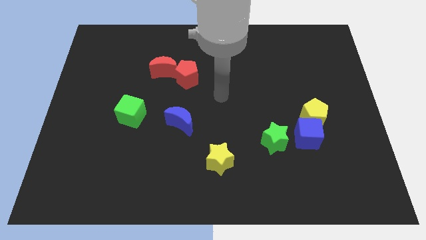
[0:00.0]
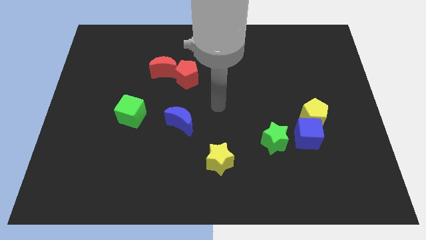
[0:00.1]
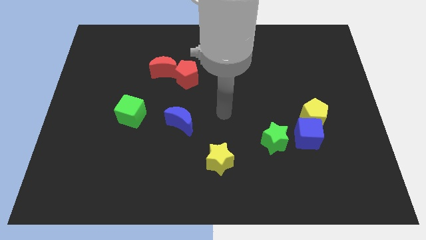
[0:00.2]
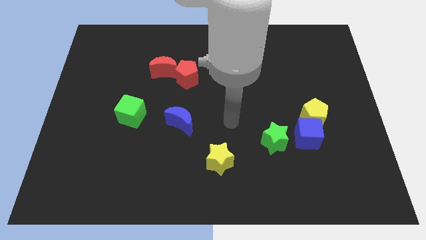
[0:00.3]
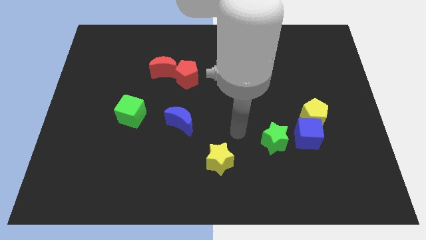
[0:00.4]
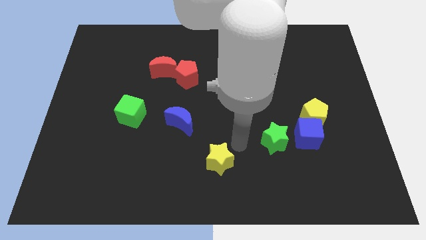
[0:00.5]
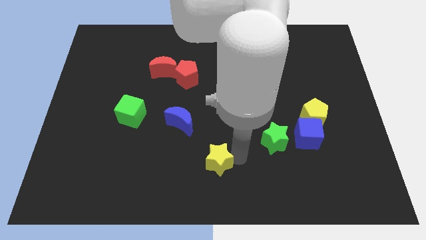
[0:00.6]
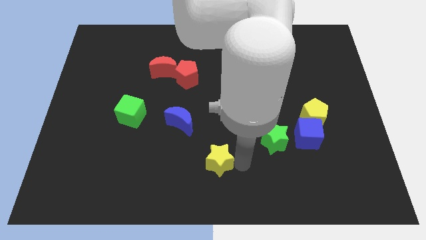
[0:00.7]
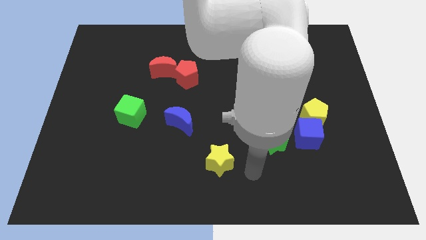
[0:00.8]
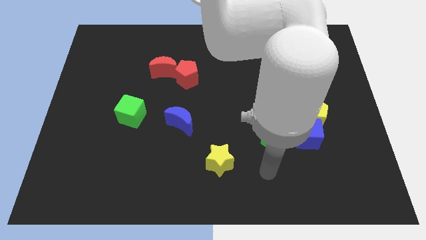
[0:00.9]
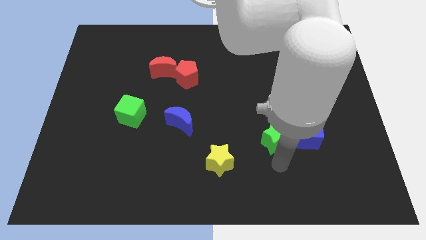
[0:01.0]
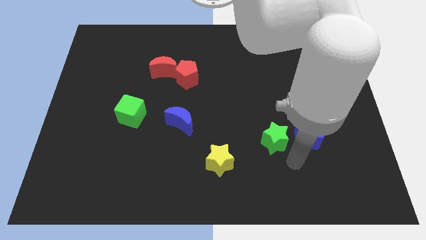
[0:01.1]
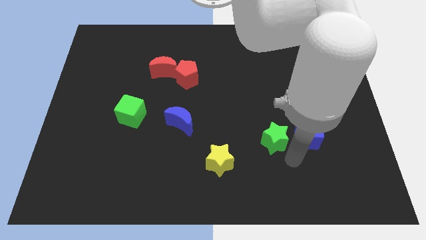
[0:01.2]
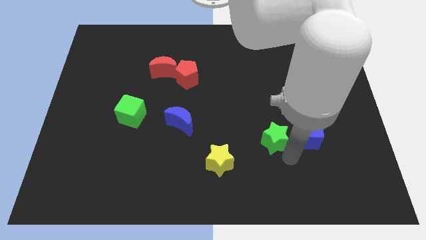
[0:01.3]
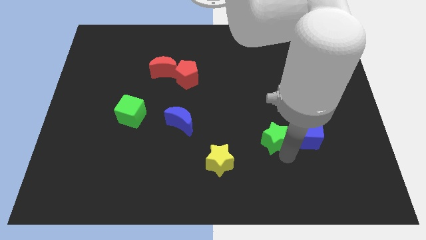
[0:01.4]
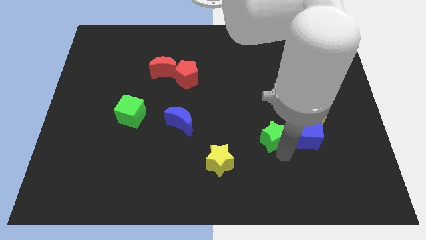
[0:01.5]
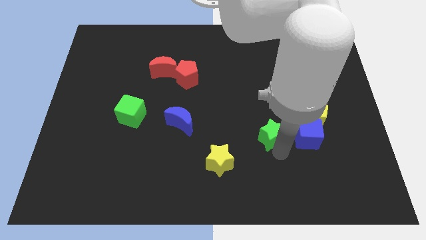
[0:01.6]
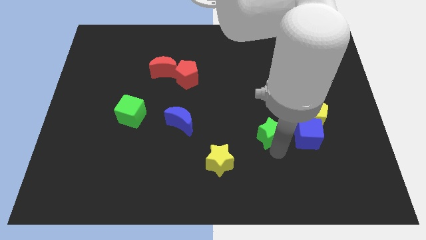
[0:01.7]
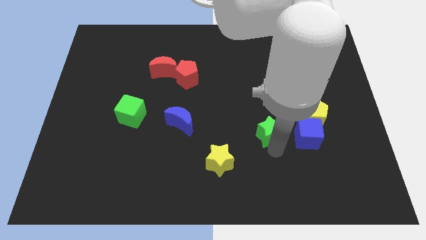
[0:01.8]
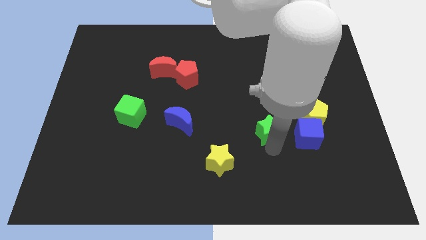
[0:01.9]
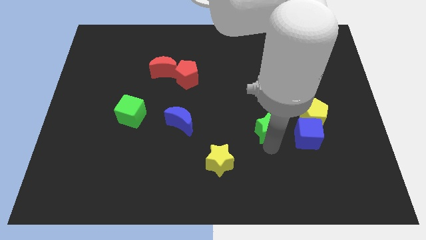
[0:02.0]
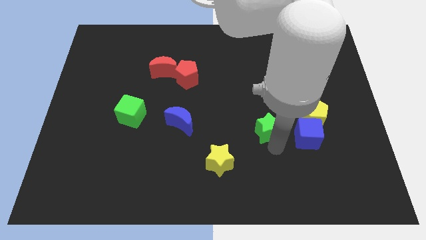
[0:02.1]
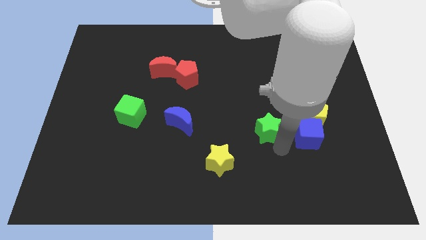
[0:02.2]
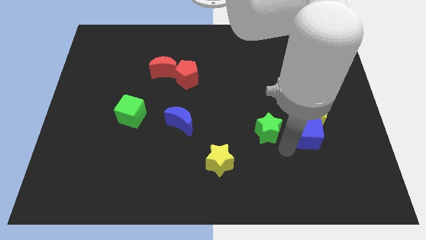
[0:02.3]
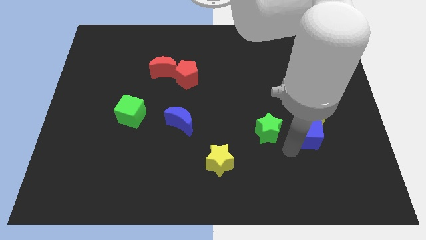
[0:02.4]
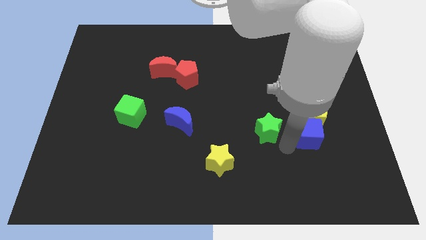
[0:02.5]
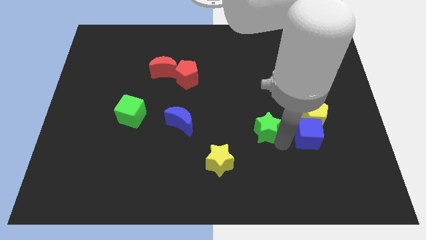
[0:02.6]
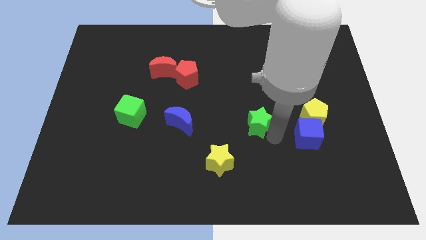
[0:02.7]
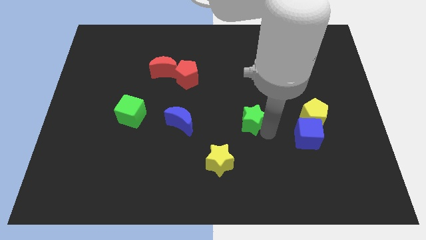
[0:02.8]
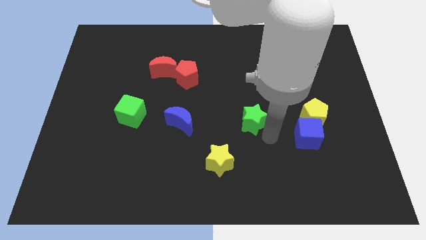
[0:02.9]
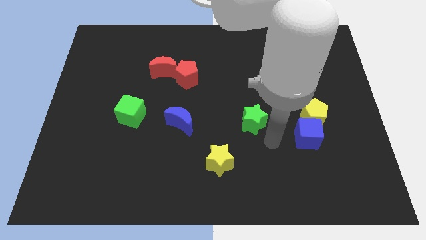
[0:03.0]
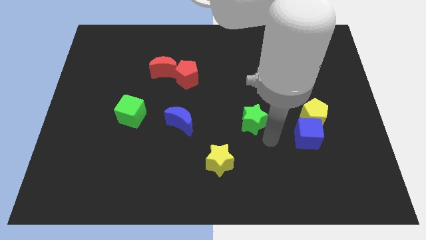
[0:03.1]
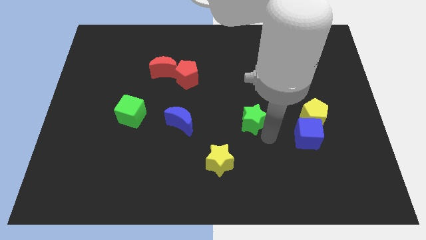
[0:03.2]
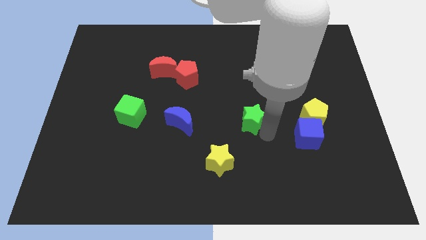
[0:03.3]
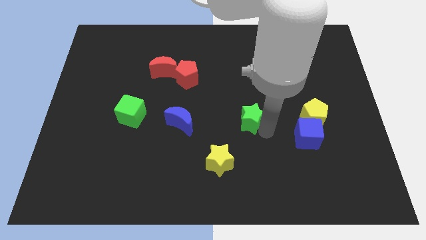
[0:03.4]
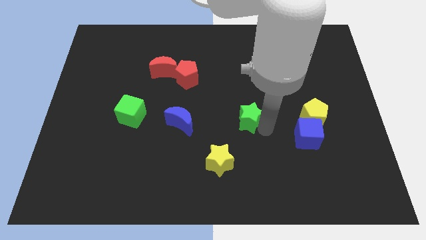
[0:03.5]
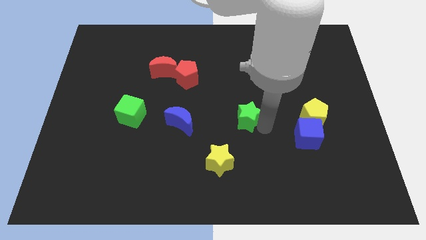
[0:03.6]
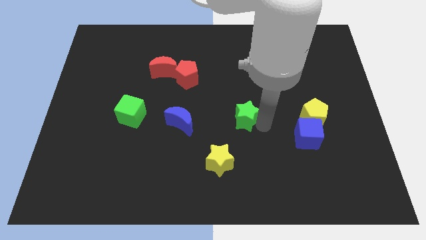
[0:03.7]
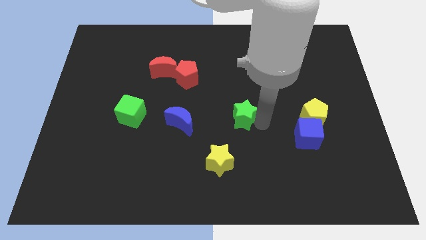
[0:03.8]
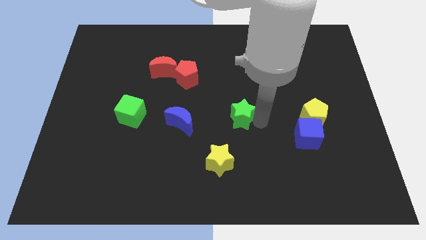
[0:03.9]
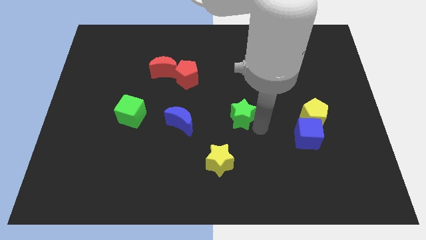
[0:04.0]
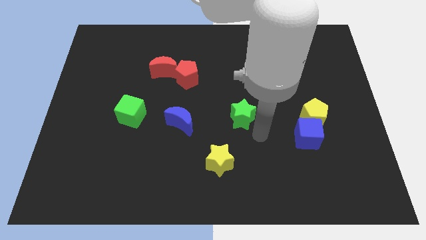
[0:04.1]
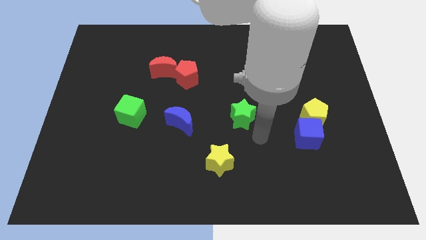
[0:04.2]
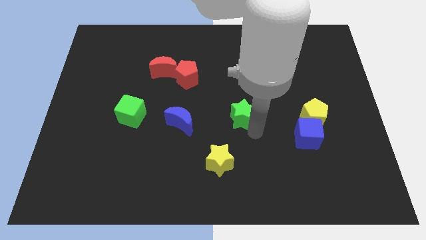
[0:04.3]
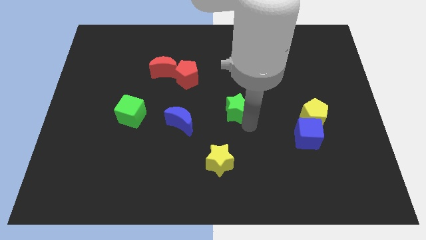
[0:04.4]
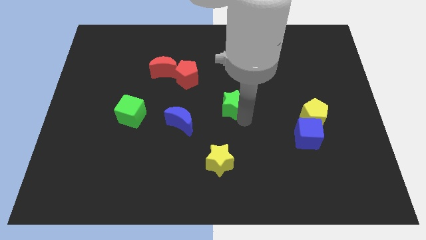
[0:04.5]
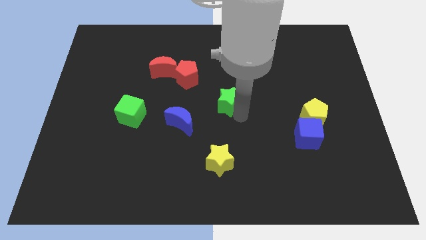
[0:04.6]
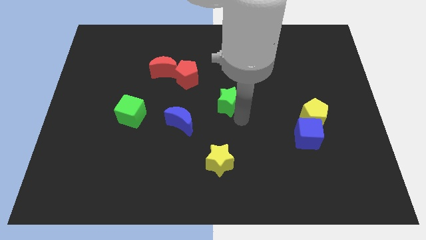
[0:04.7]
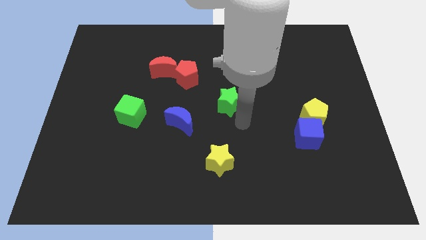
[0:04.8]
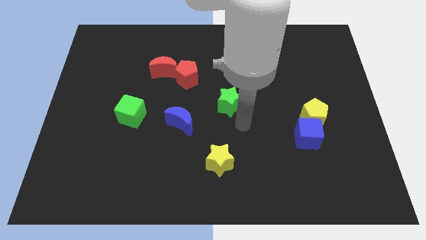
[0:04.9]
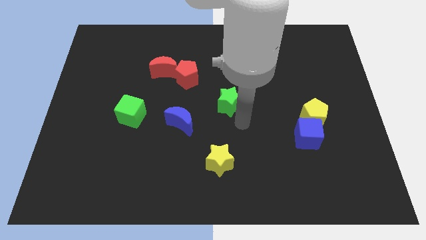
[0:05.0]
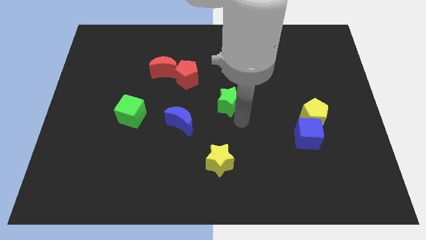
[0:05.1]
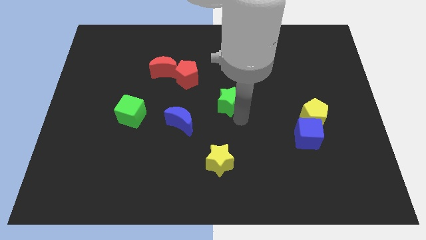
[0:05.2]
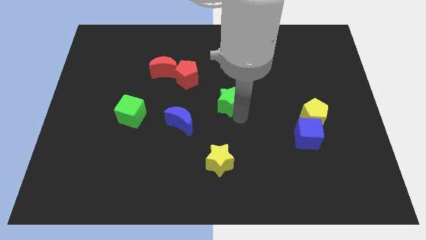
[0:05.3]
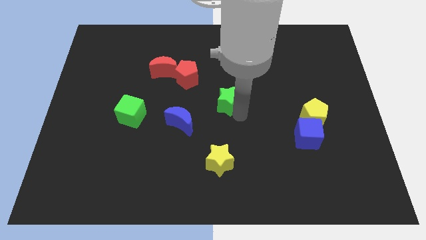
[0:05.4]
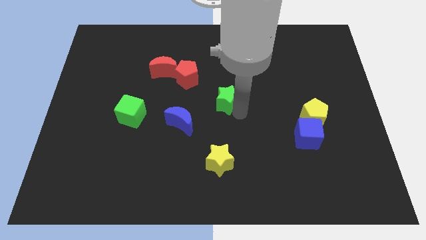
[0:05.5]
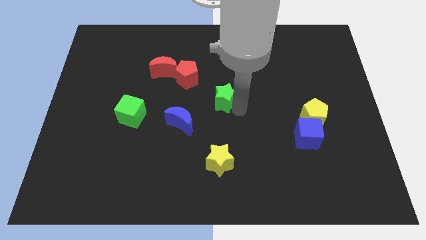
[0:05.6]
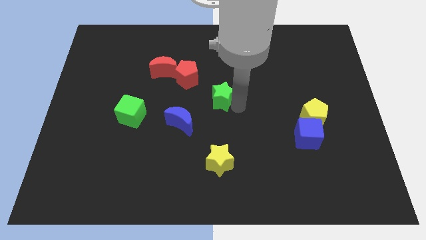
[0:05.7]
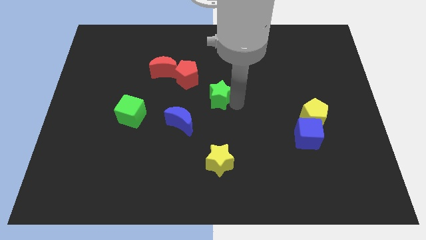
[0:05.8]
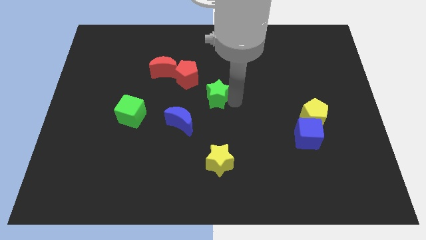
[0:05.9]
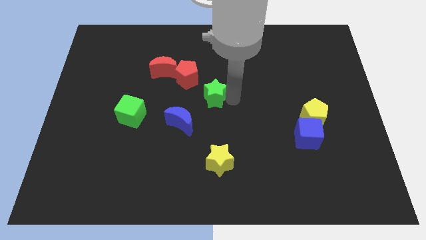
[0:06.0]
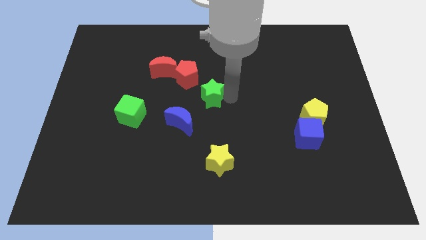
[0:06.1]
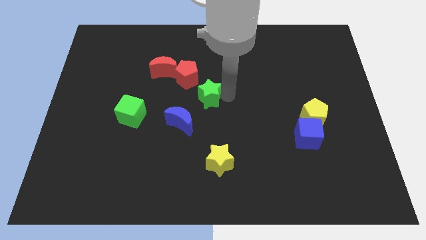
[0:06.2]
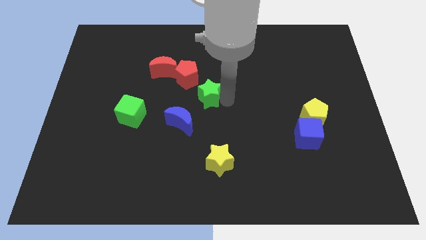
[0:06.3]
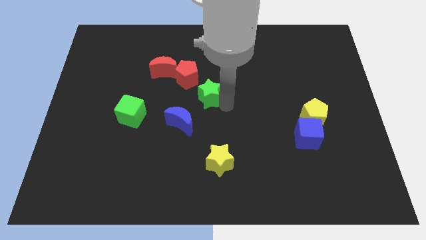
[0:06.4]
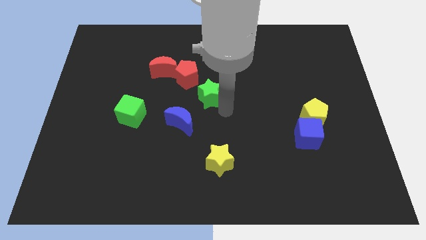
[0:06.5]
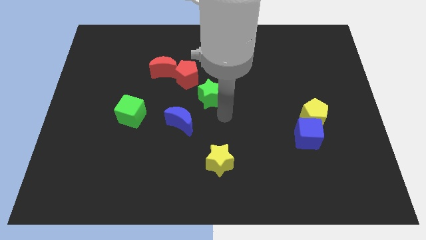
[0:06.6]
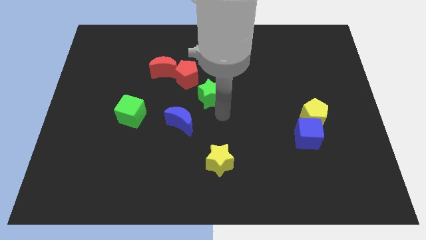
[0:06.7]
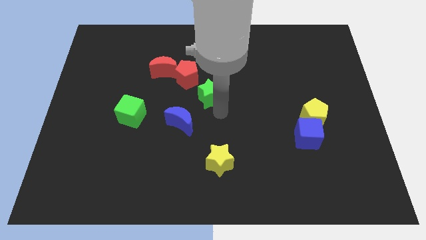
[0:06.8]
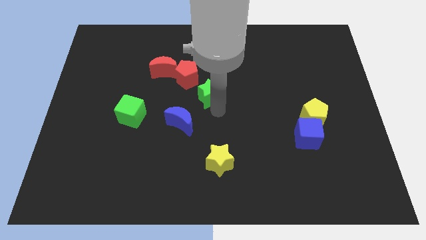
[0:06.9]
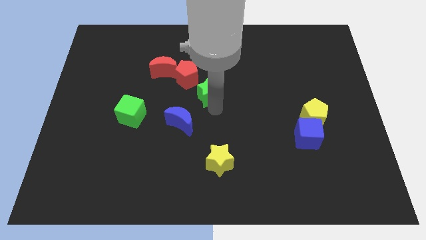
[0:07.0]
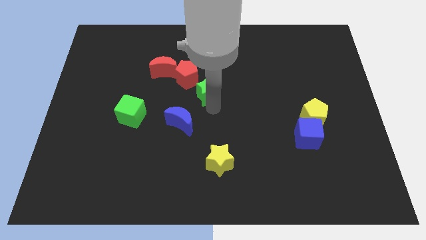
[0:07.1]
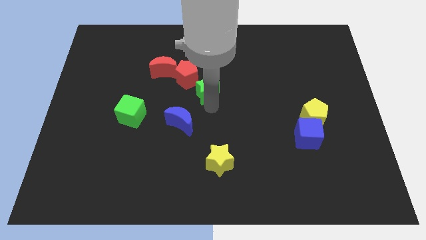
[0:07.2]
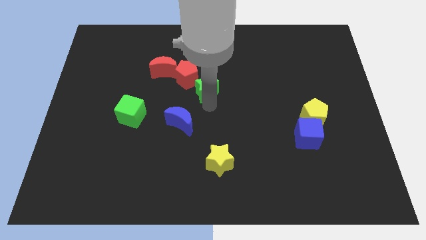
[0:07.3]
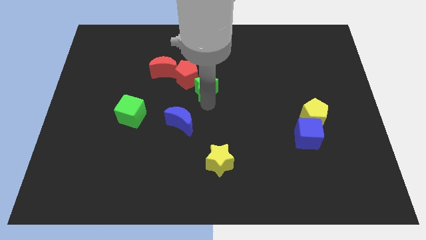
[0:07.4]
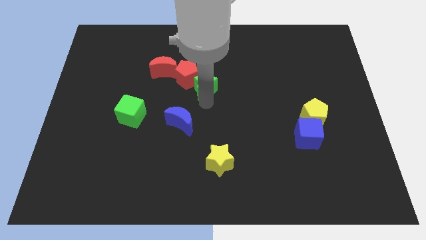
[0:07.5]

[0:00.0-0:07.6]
put the green star to the red pentagon
